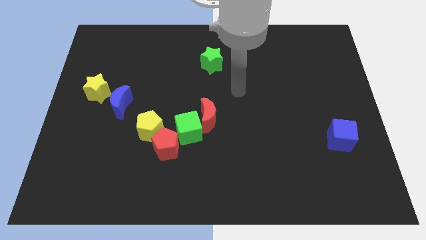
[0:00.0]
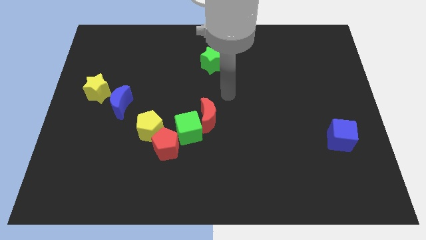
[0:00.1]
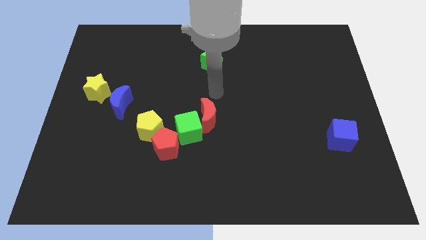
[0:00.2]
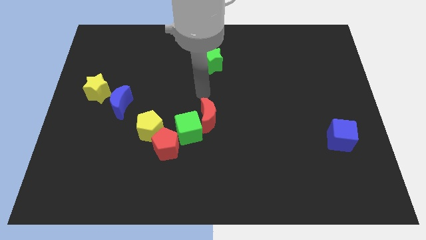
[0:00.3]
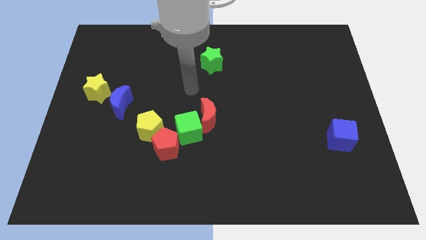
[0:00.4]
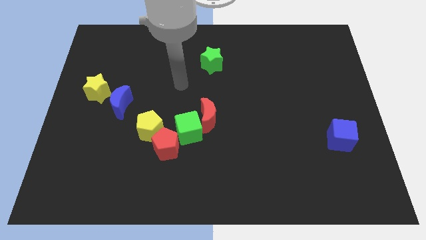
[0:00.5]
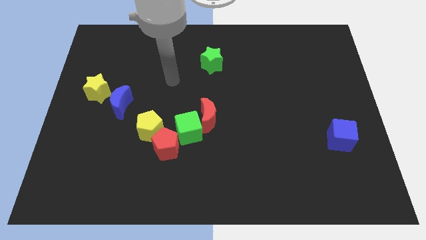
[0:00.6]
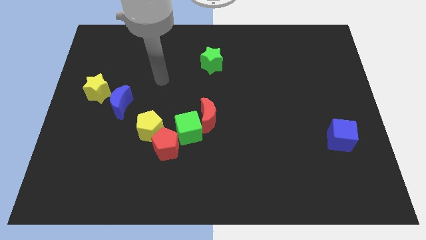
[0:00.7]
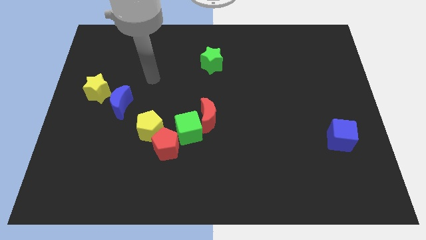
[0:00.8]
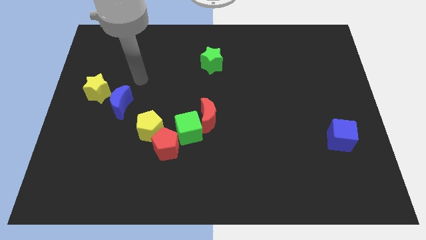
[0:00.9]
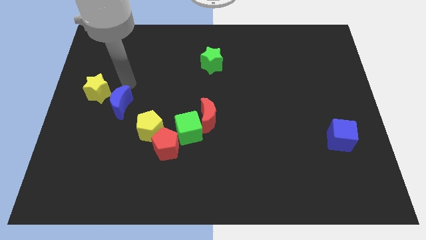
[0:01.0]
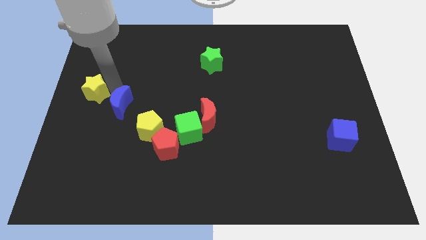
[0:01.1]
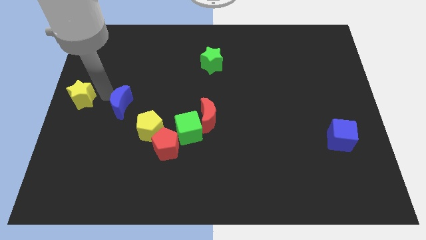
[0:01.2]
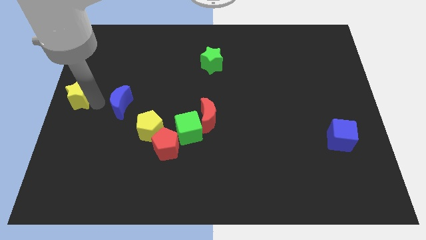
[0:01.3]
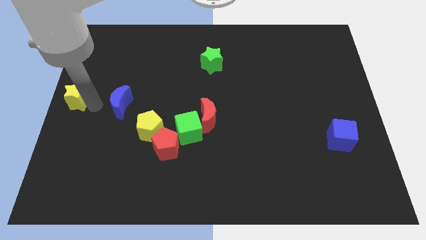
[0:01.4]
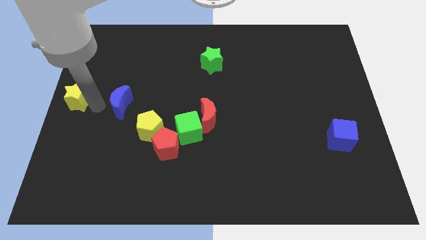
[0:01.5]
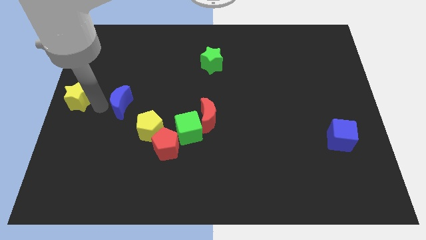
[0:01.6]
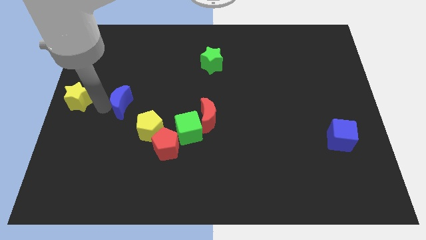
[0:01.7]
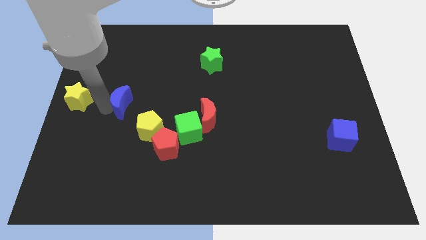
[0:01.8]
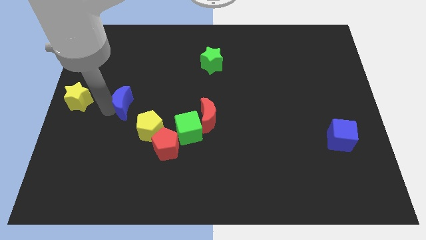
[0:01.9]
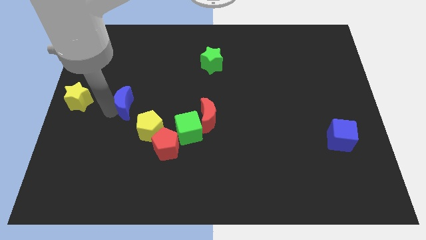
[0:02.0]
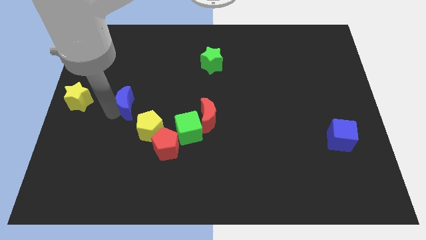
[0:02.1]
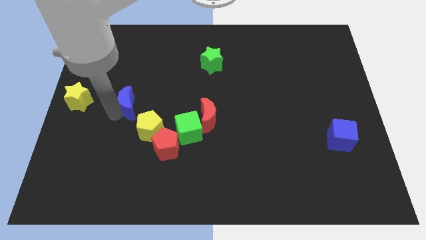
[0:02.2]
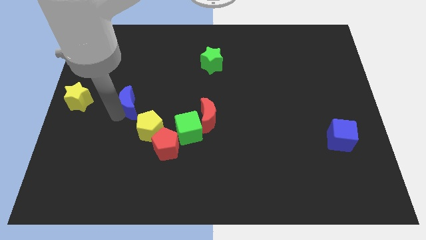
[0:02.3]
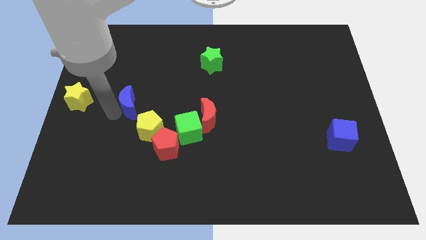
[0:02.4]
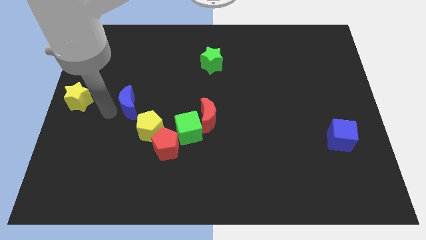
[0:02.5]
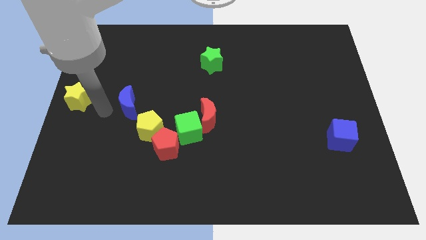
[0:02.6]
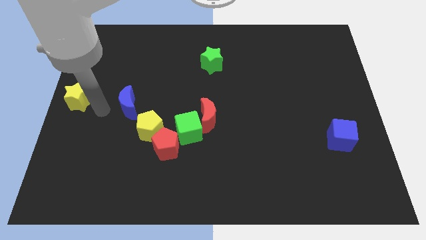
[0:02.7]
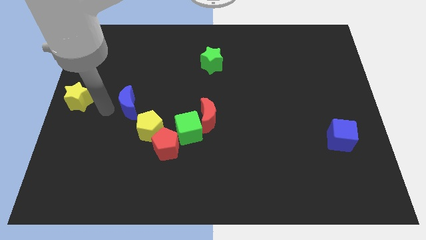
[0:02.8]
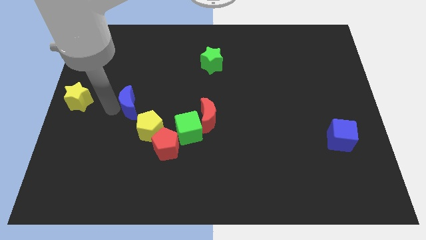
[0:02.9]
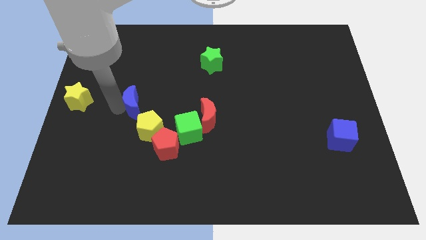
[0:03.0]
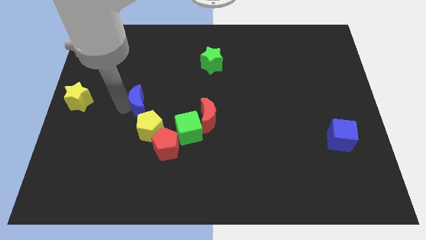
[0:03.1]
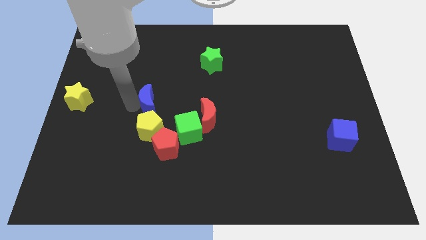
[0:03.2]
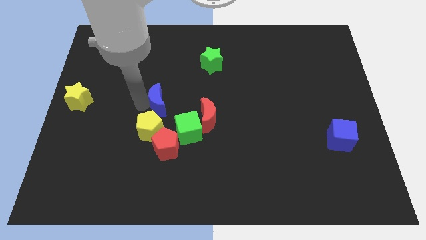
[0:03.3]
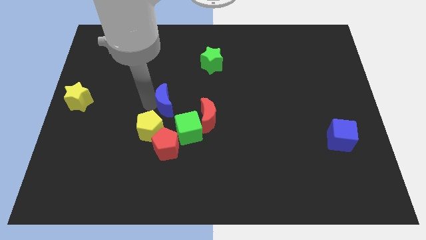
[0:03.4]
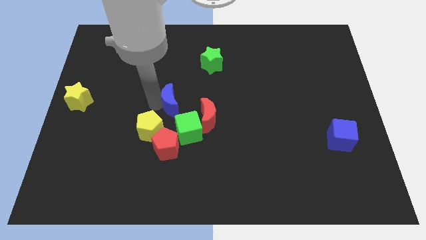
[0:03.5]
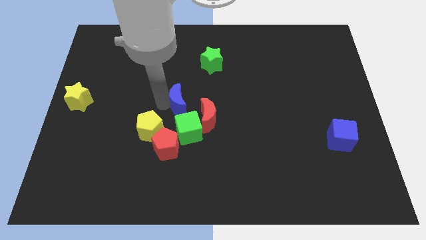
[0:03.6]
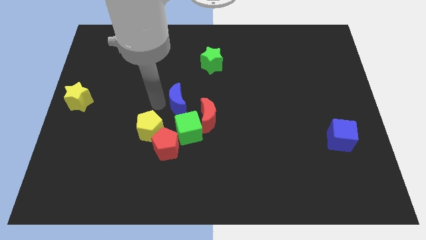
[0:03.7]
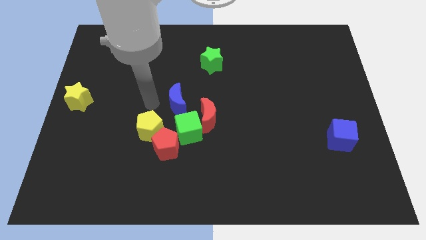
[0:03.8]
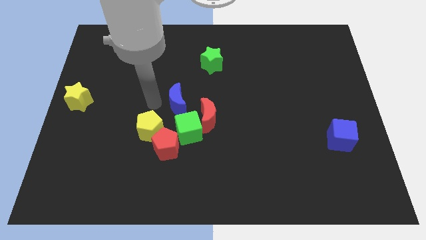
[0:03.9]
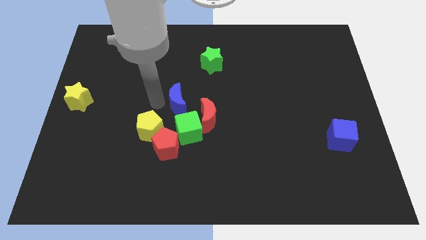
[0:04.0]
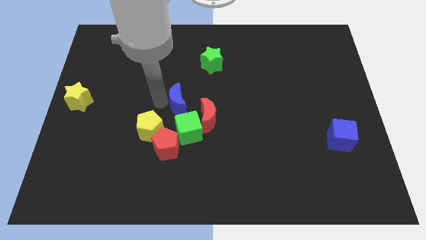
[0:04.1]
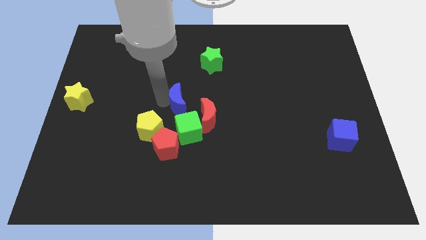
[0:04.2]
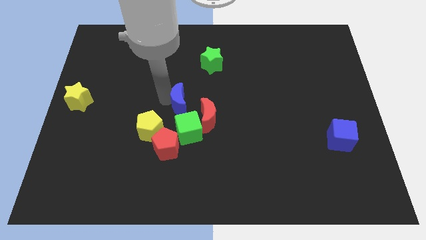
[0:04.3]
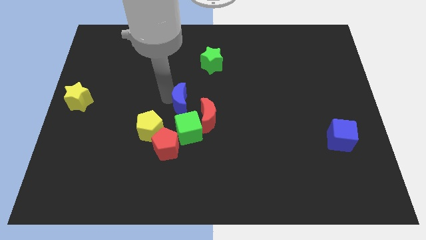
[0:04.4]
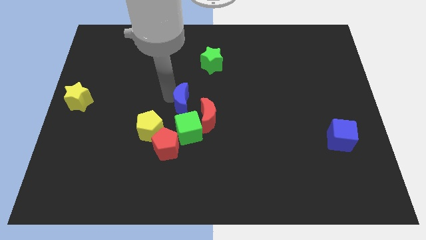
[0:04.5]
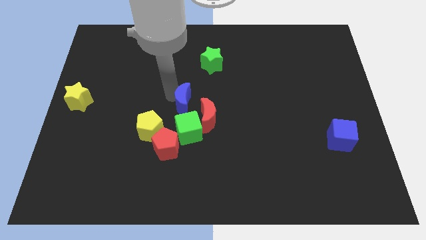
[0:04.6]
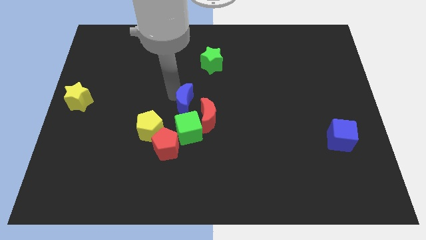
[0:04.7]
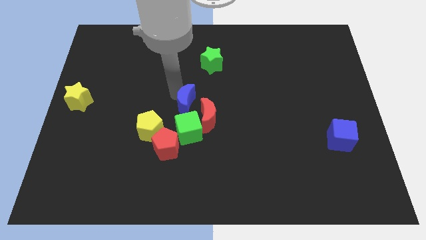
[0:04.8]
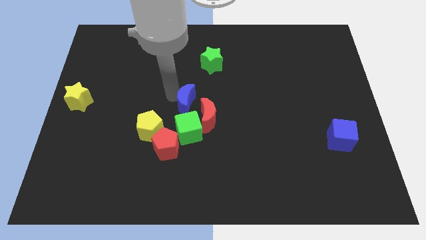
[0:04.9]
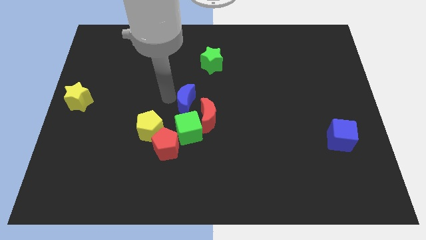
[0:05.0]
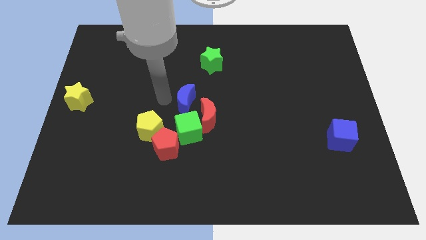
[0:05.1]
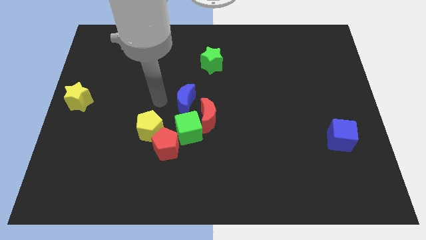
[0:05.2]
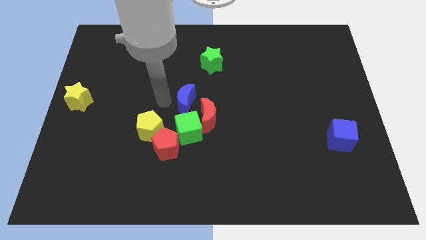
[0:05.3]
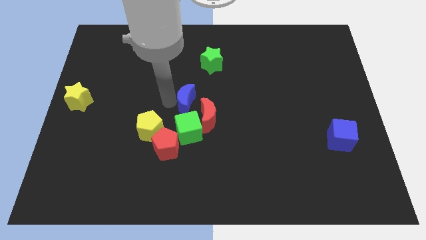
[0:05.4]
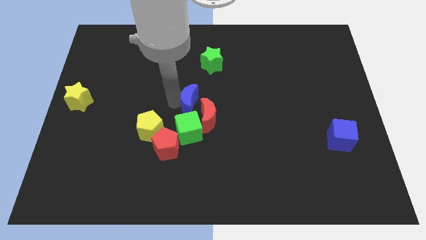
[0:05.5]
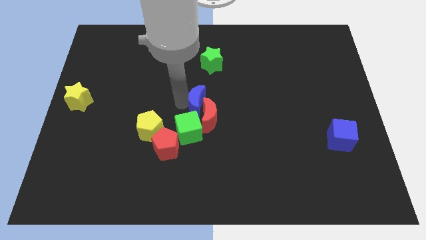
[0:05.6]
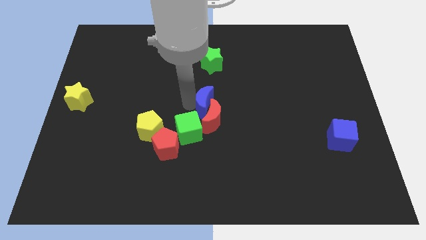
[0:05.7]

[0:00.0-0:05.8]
push the blue moon to the right

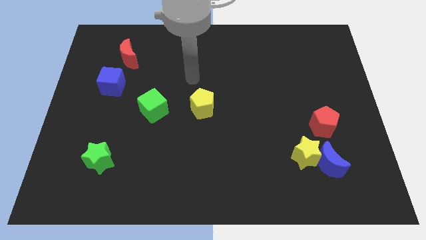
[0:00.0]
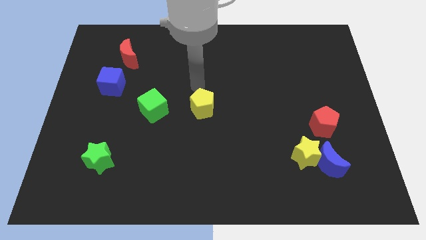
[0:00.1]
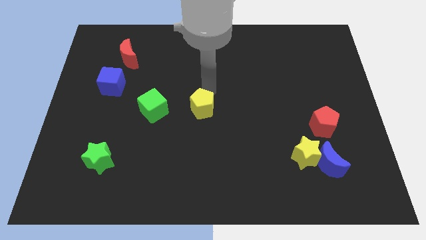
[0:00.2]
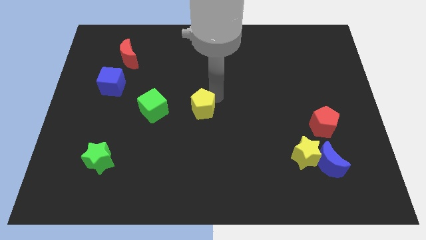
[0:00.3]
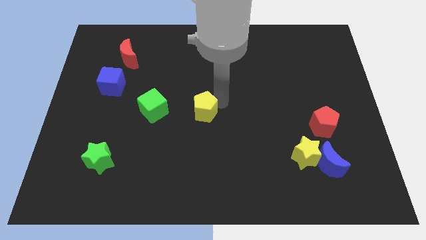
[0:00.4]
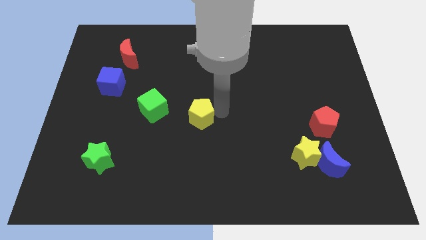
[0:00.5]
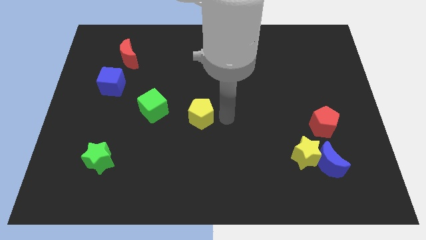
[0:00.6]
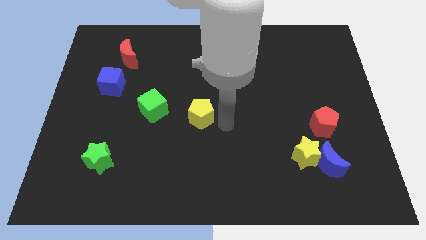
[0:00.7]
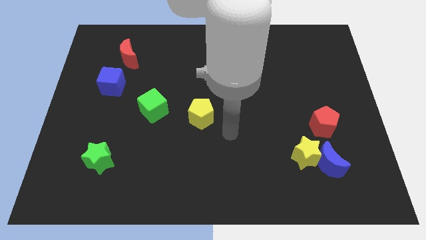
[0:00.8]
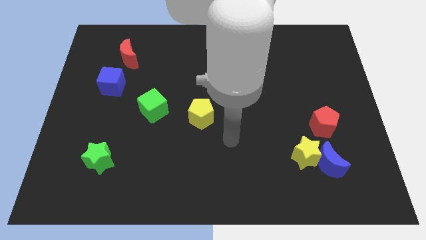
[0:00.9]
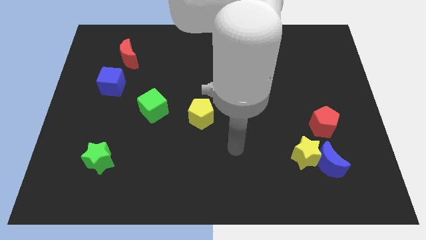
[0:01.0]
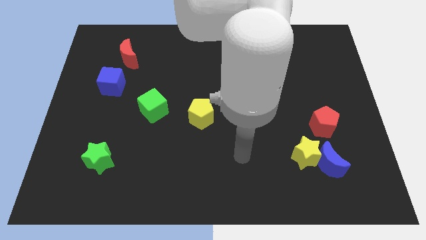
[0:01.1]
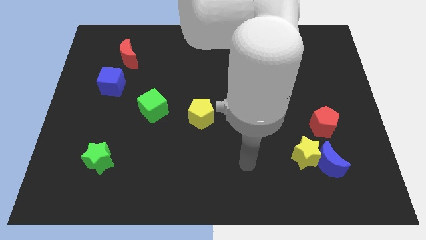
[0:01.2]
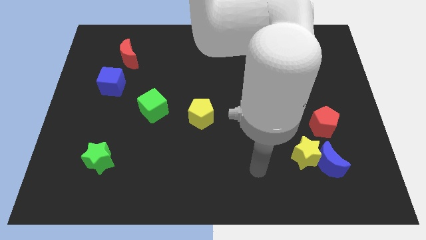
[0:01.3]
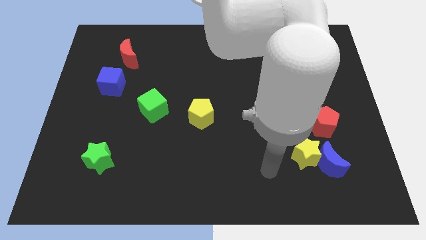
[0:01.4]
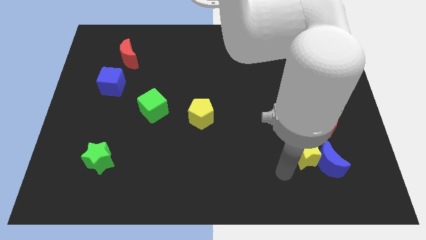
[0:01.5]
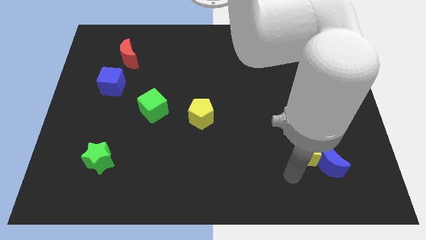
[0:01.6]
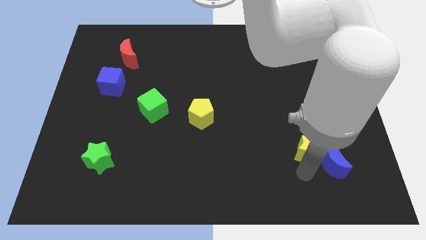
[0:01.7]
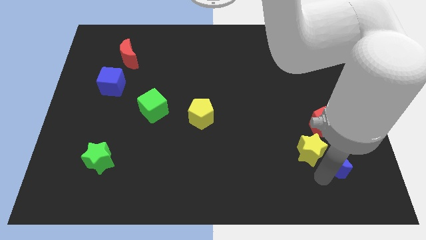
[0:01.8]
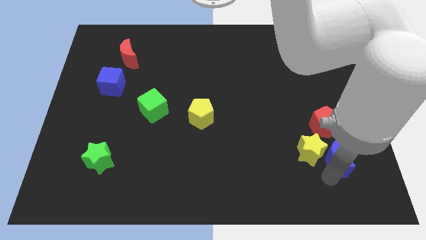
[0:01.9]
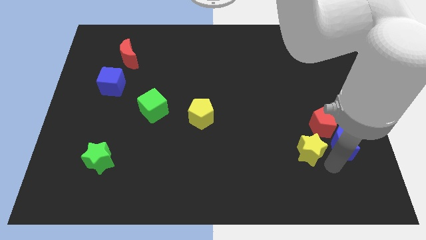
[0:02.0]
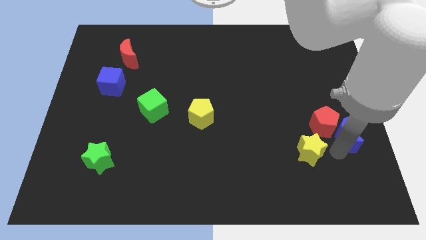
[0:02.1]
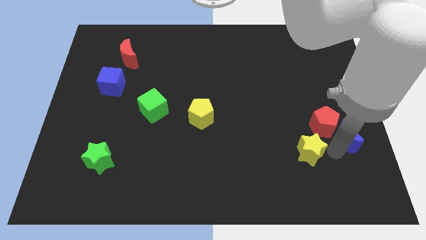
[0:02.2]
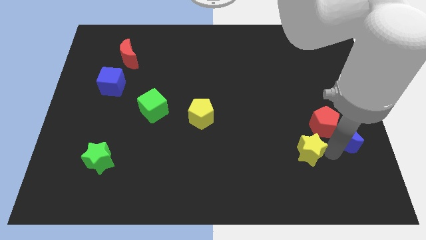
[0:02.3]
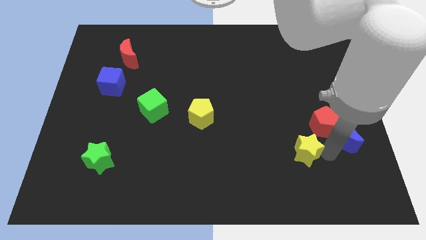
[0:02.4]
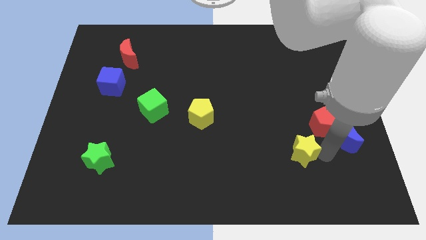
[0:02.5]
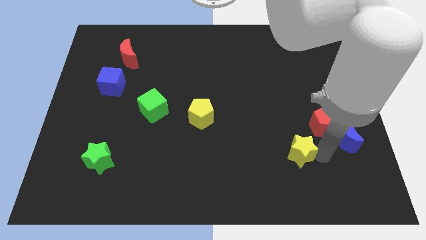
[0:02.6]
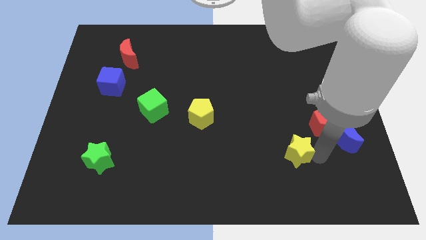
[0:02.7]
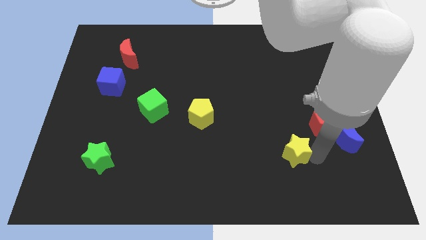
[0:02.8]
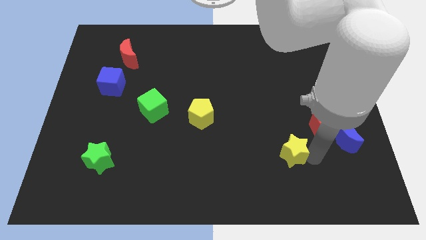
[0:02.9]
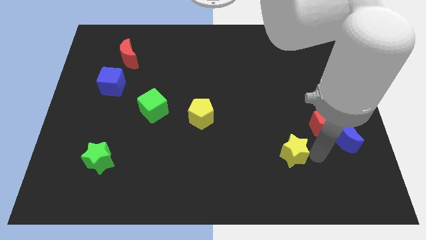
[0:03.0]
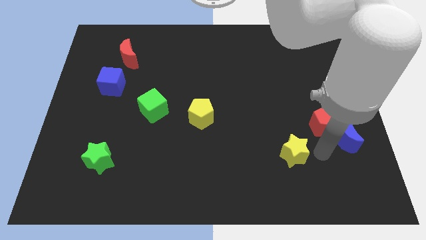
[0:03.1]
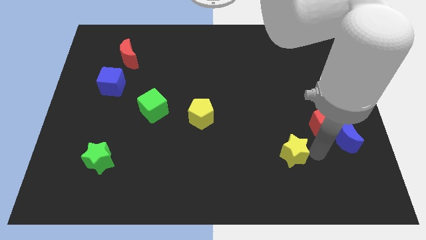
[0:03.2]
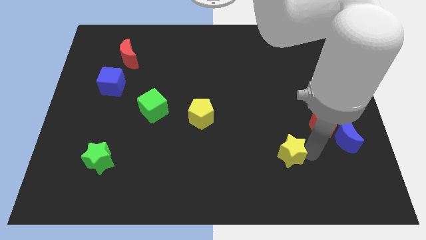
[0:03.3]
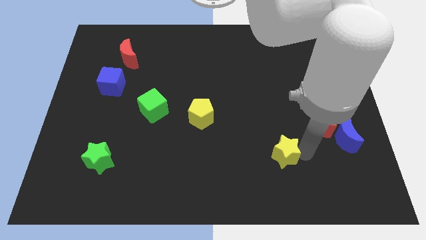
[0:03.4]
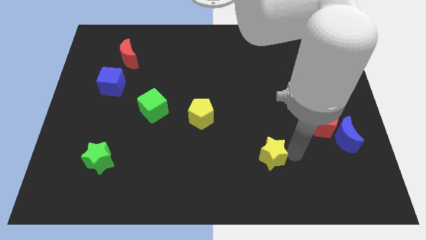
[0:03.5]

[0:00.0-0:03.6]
slide the yellow star a bit left
